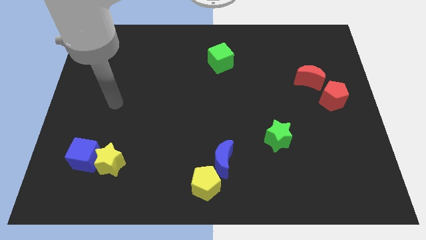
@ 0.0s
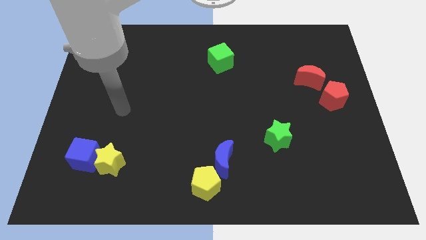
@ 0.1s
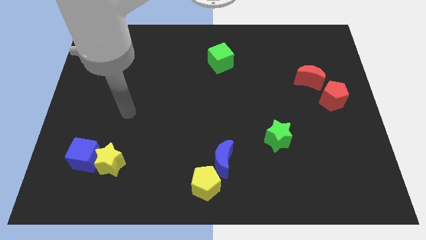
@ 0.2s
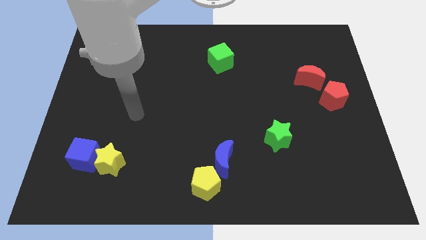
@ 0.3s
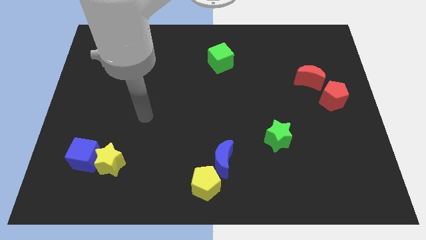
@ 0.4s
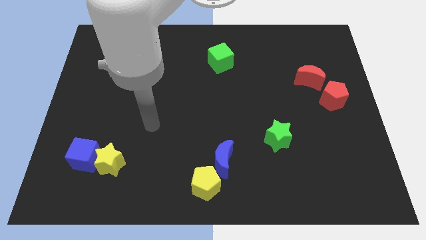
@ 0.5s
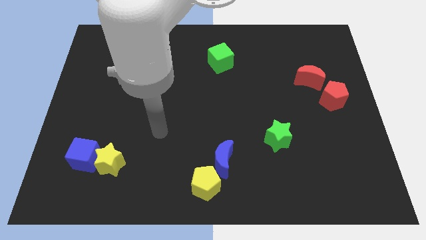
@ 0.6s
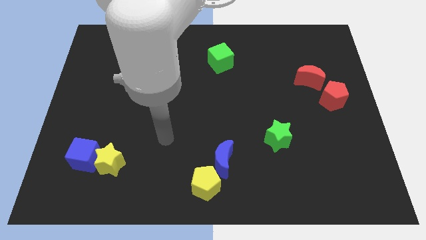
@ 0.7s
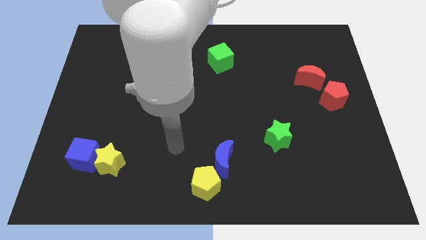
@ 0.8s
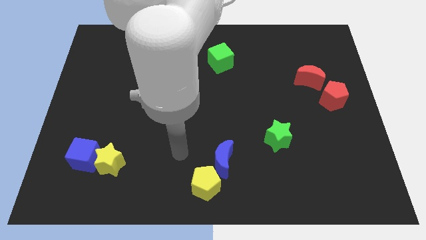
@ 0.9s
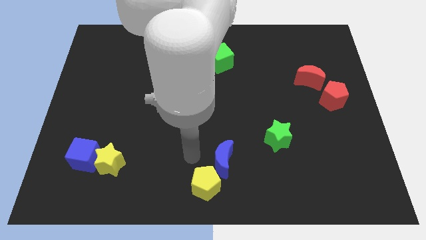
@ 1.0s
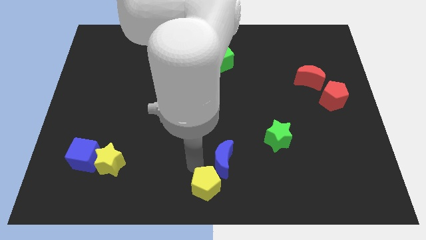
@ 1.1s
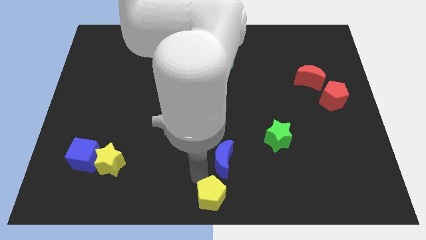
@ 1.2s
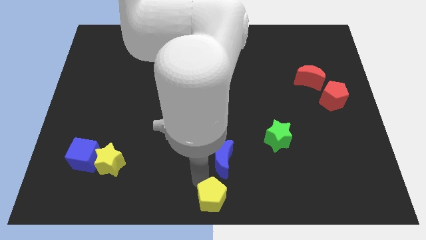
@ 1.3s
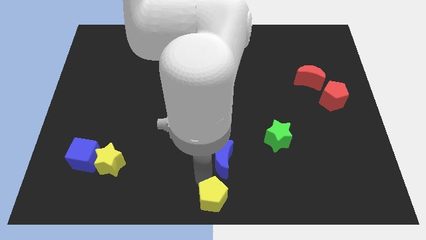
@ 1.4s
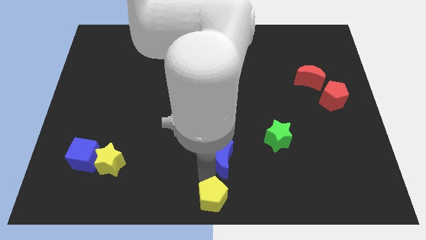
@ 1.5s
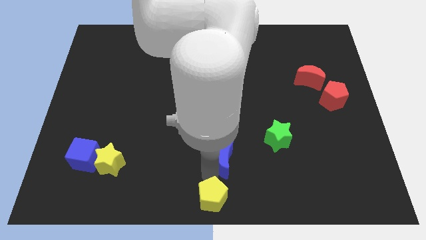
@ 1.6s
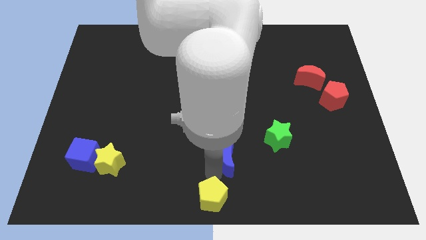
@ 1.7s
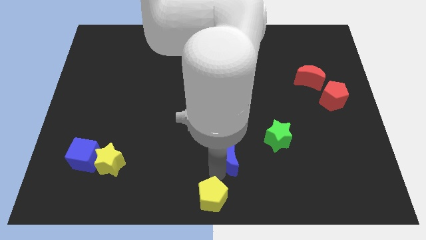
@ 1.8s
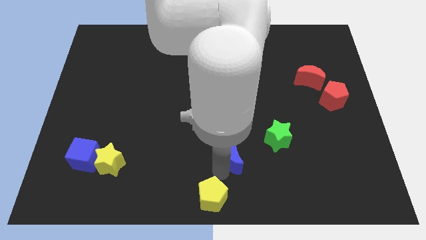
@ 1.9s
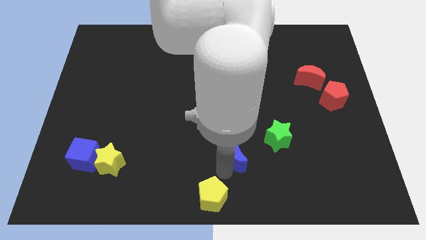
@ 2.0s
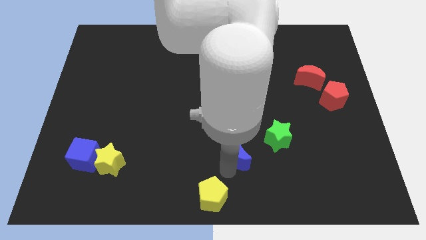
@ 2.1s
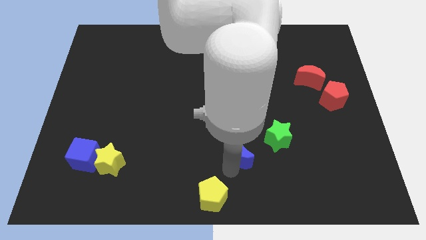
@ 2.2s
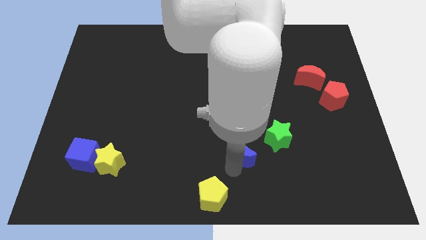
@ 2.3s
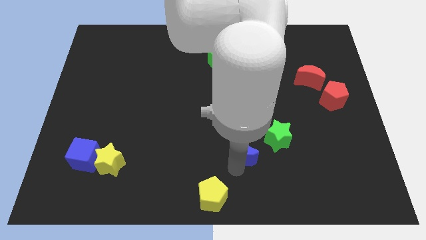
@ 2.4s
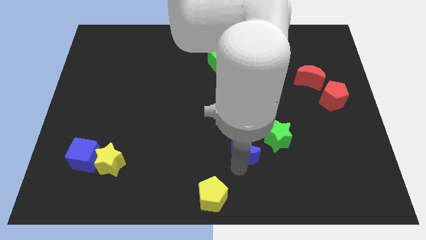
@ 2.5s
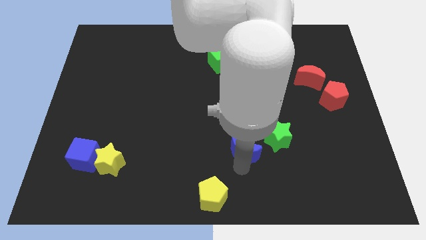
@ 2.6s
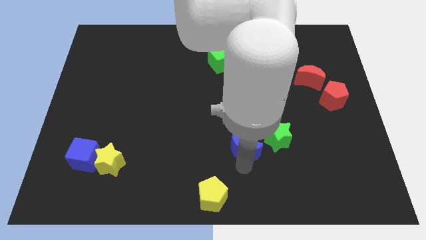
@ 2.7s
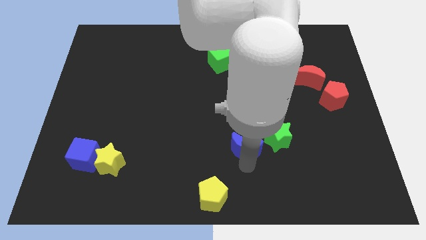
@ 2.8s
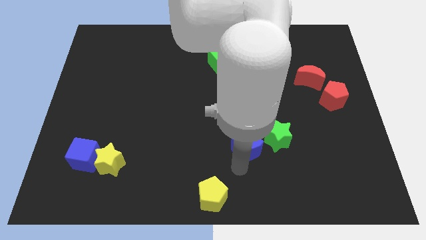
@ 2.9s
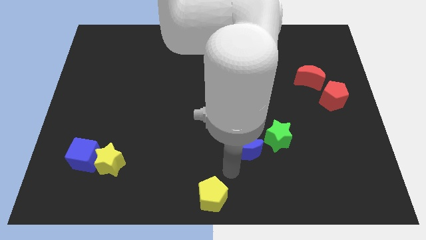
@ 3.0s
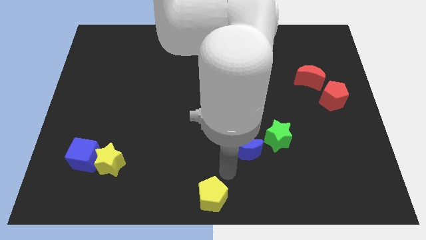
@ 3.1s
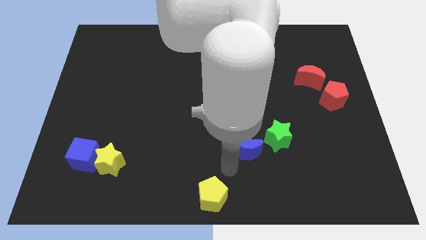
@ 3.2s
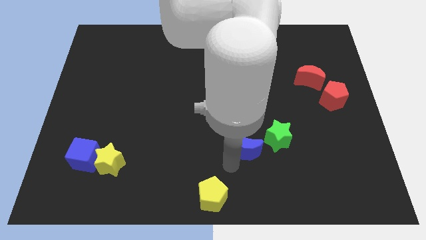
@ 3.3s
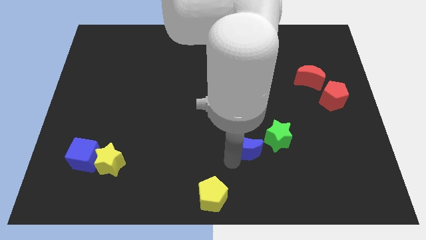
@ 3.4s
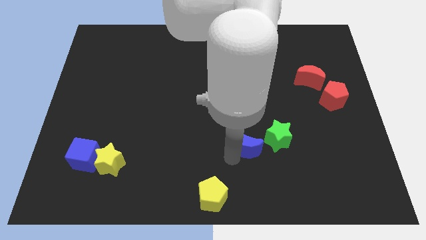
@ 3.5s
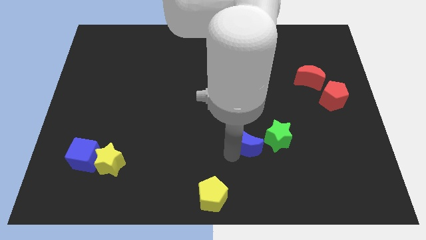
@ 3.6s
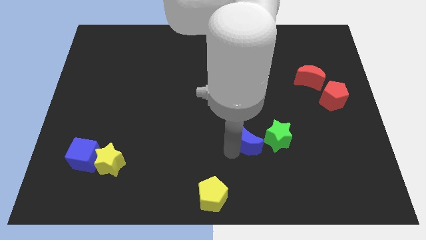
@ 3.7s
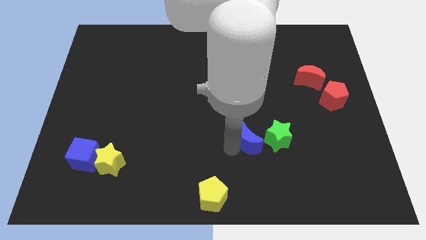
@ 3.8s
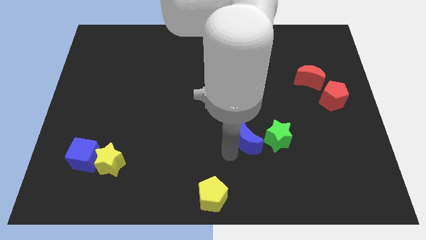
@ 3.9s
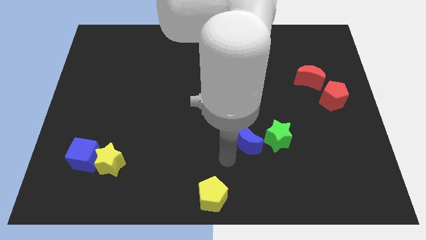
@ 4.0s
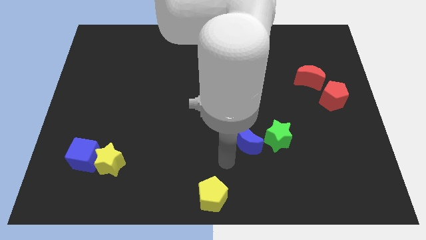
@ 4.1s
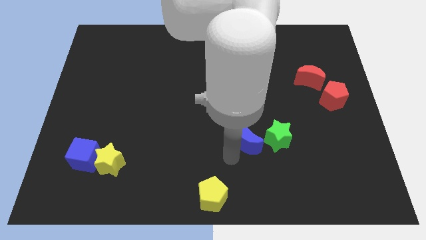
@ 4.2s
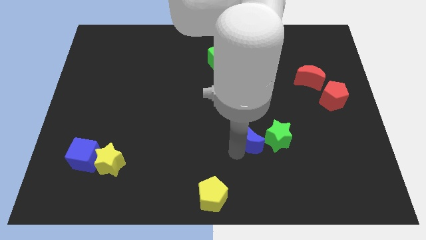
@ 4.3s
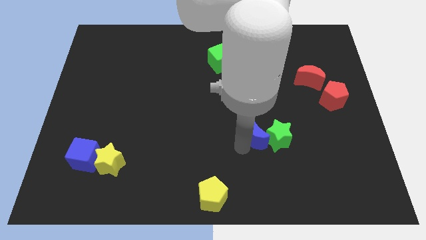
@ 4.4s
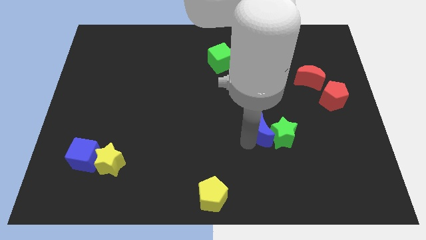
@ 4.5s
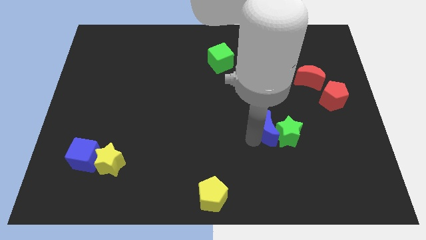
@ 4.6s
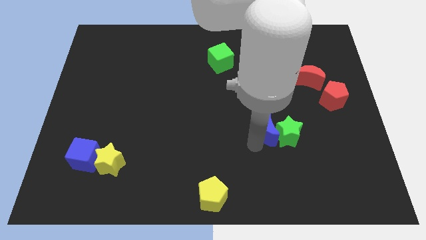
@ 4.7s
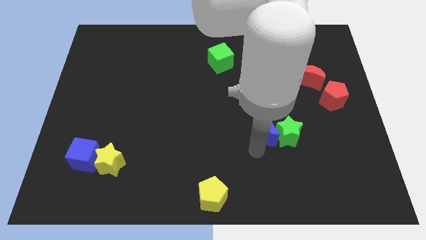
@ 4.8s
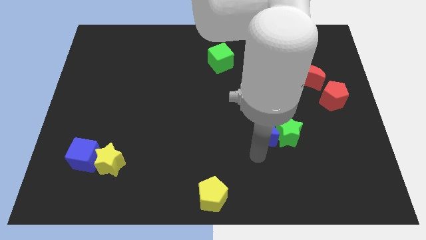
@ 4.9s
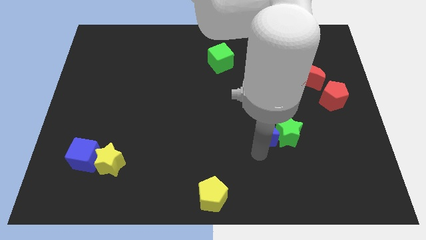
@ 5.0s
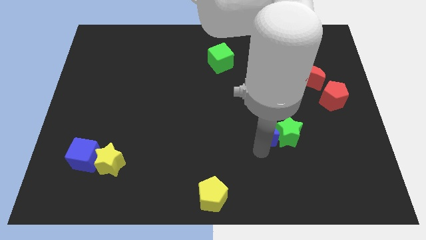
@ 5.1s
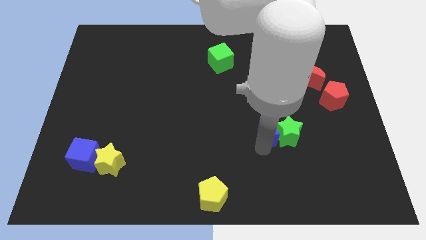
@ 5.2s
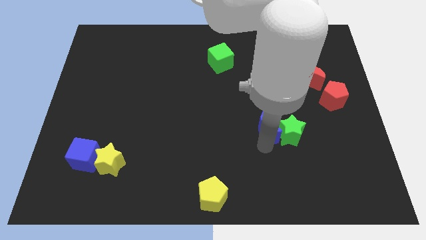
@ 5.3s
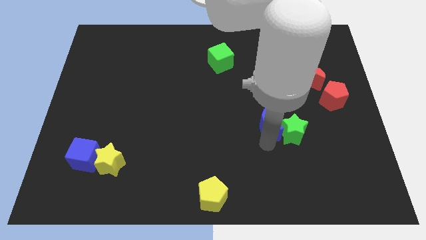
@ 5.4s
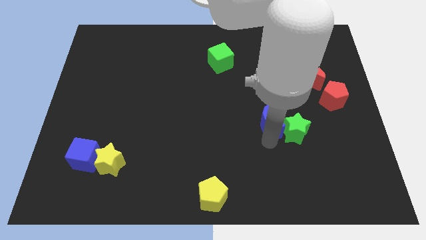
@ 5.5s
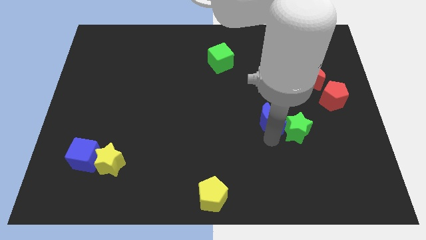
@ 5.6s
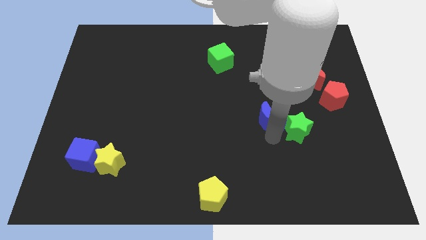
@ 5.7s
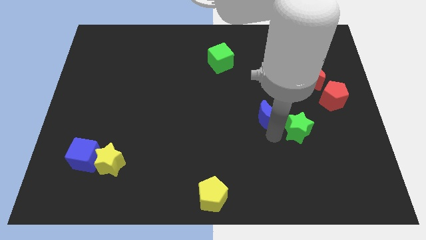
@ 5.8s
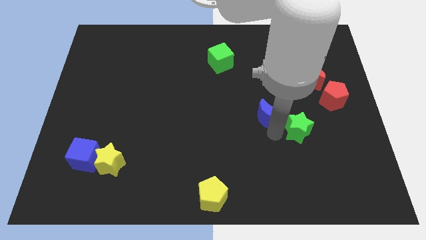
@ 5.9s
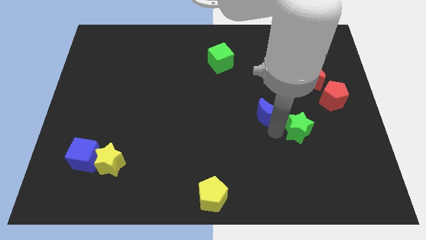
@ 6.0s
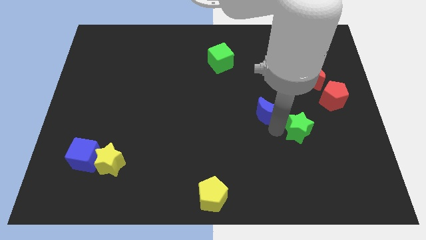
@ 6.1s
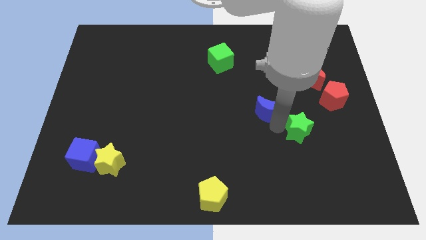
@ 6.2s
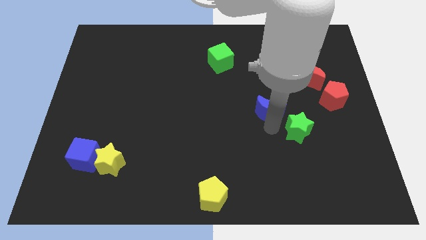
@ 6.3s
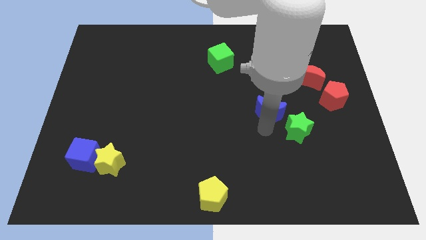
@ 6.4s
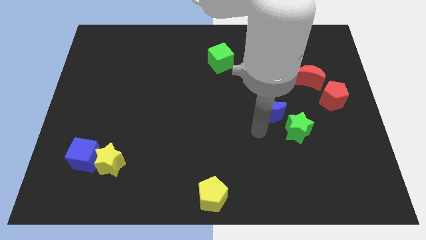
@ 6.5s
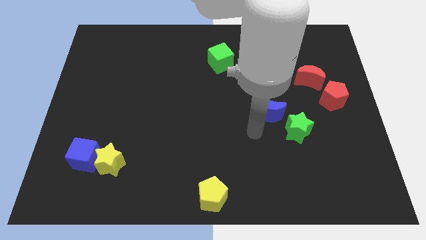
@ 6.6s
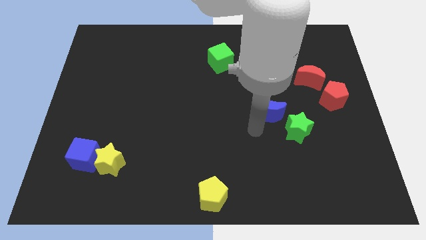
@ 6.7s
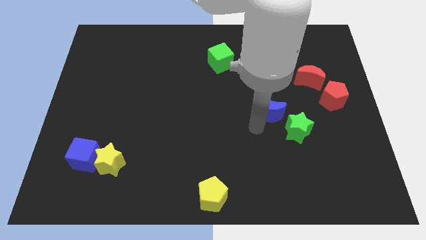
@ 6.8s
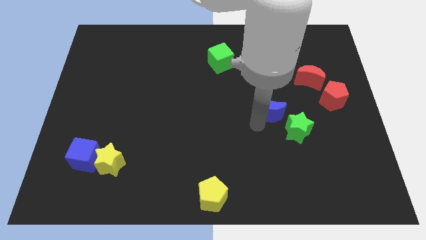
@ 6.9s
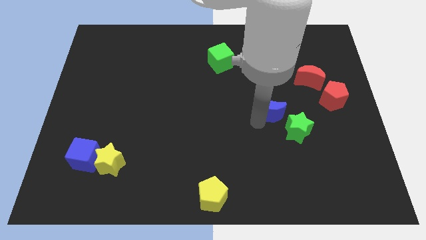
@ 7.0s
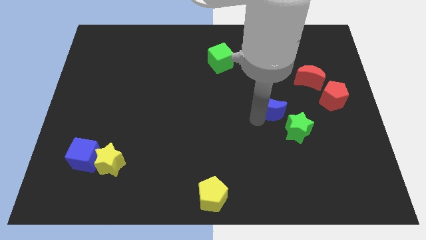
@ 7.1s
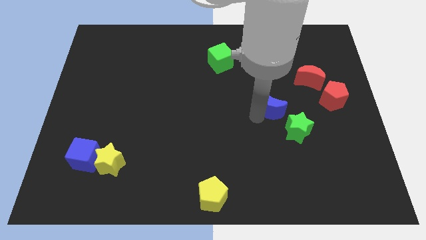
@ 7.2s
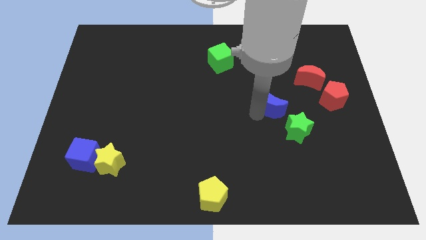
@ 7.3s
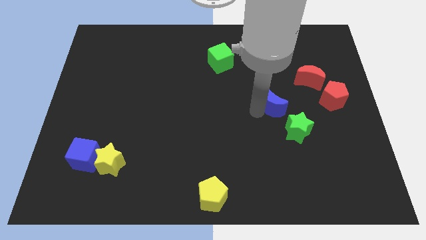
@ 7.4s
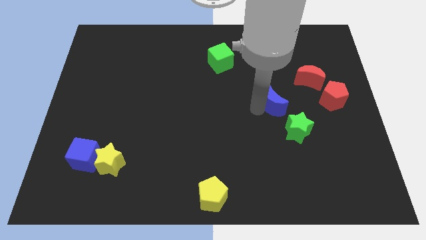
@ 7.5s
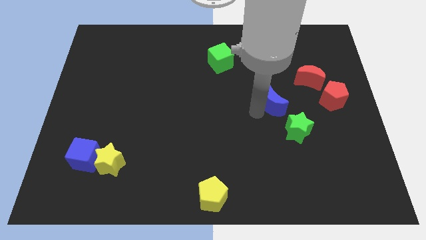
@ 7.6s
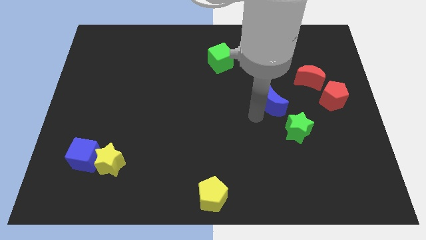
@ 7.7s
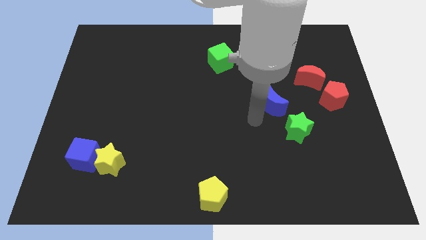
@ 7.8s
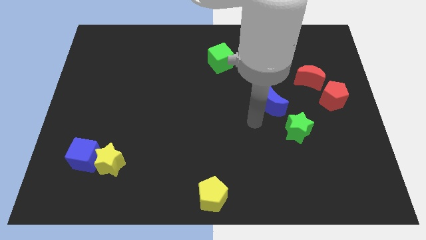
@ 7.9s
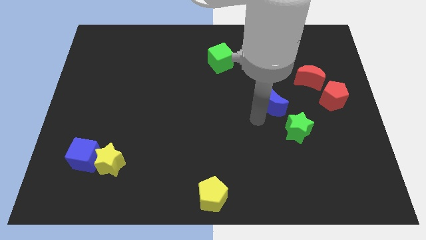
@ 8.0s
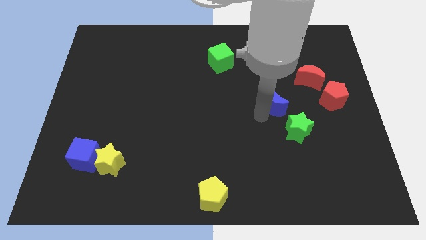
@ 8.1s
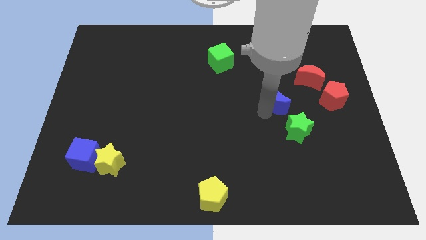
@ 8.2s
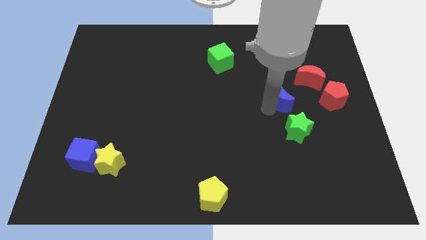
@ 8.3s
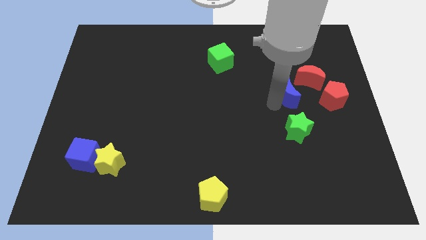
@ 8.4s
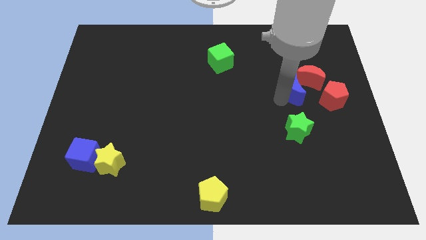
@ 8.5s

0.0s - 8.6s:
move the blue moon towards the red moon
